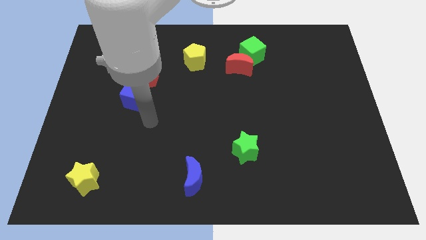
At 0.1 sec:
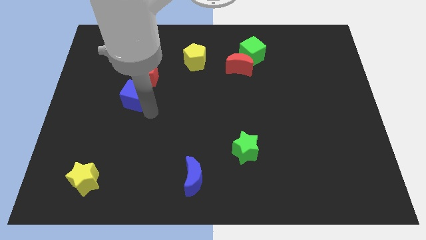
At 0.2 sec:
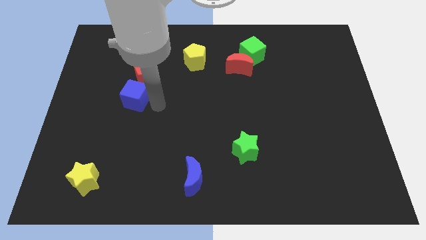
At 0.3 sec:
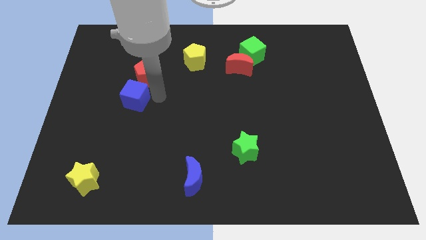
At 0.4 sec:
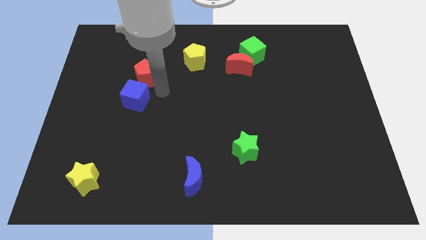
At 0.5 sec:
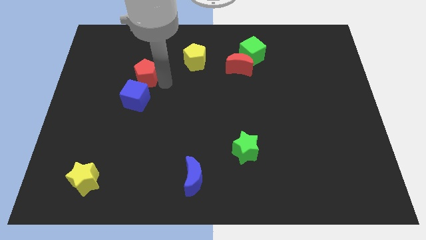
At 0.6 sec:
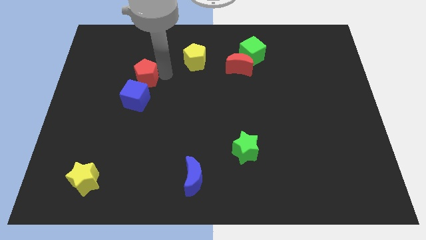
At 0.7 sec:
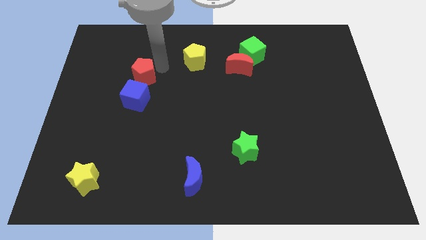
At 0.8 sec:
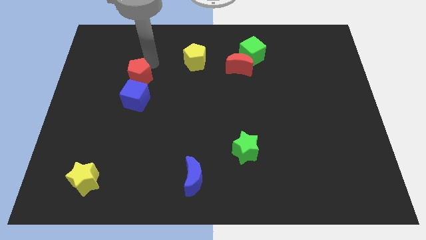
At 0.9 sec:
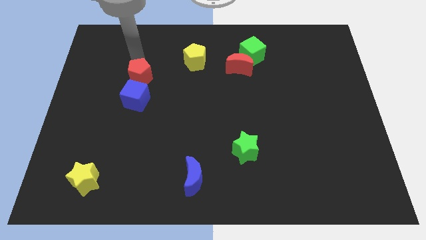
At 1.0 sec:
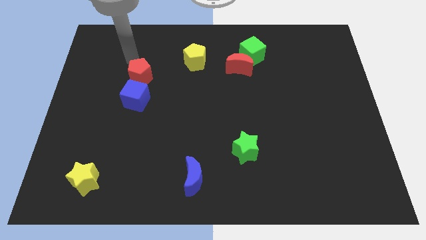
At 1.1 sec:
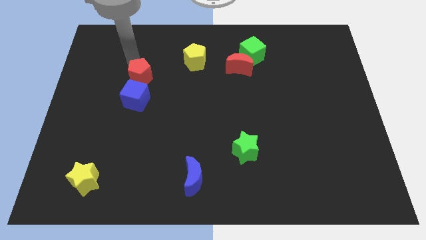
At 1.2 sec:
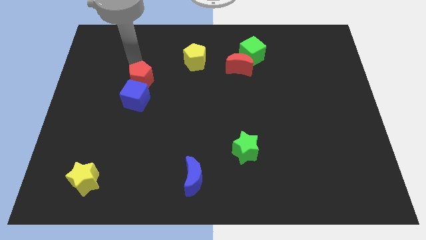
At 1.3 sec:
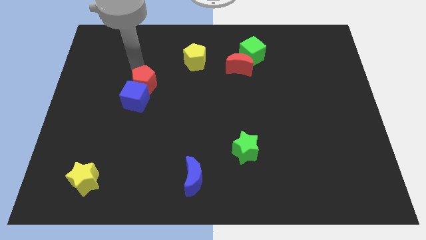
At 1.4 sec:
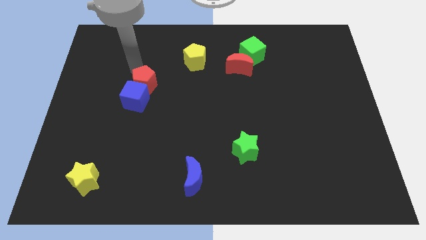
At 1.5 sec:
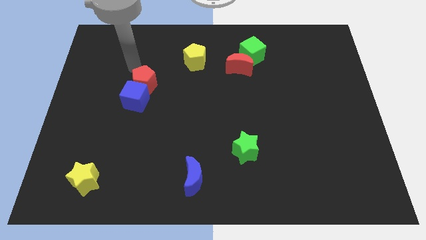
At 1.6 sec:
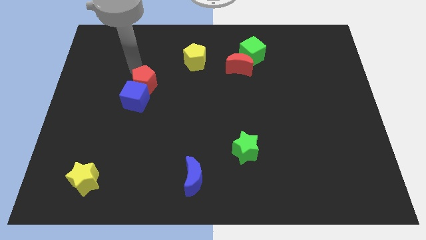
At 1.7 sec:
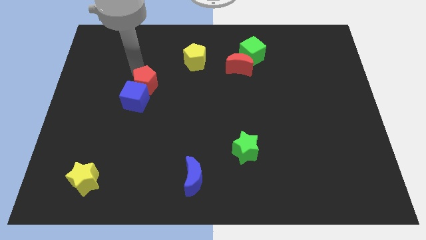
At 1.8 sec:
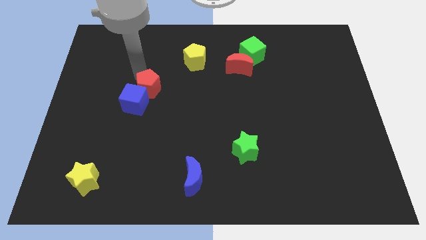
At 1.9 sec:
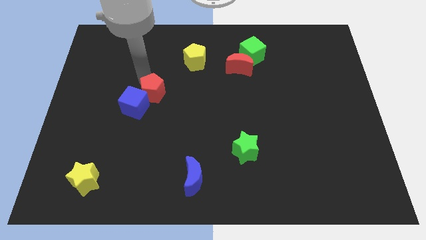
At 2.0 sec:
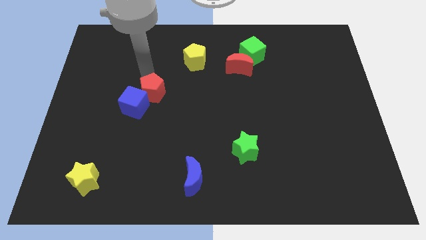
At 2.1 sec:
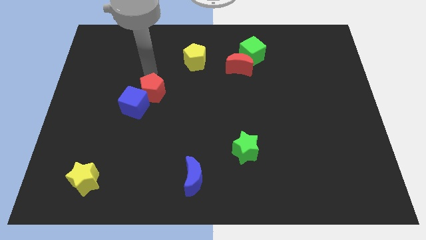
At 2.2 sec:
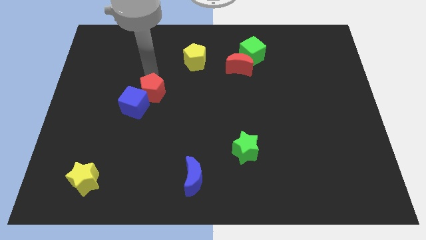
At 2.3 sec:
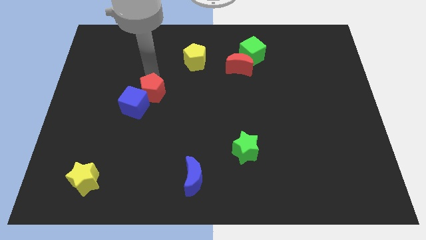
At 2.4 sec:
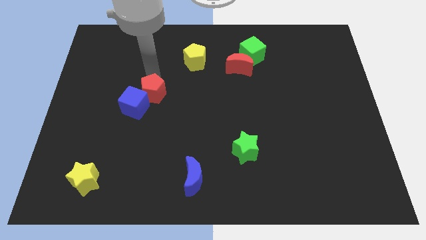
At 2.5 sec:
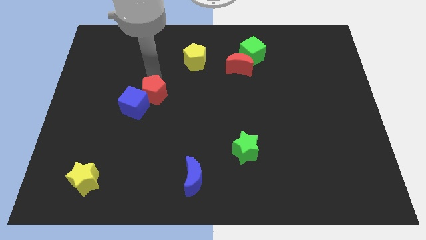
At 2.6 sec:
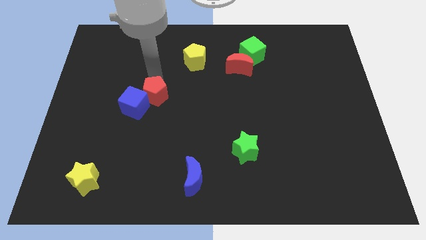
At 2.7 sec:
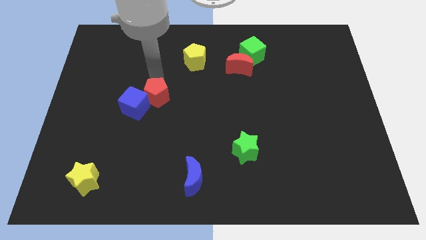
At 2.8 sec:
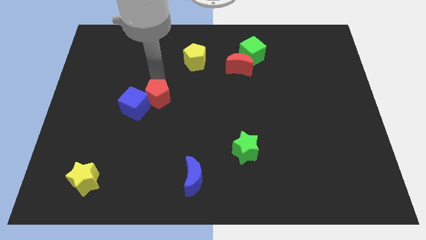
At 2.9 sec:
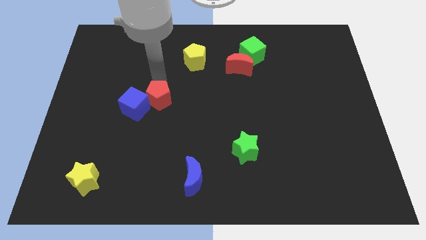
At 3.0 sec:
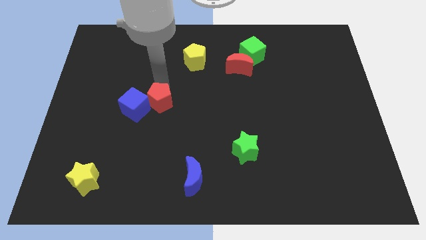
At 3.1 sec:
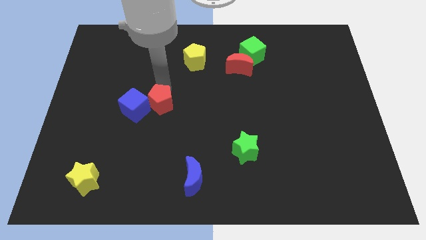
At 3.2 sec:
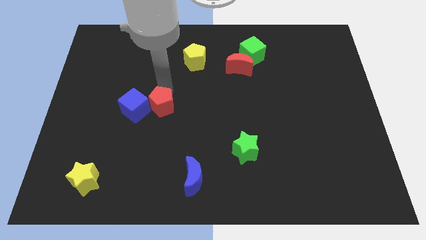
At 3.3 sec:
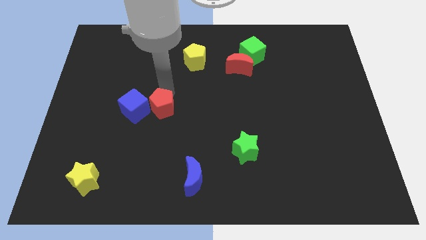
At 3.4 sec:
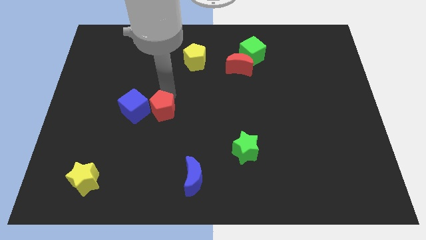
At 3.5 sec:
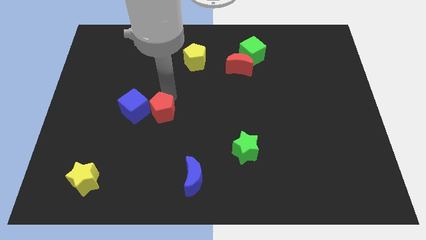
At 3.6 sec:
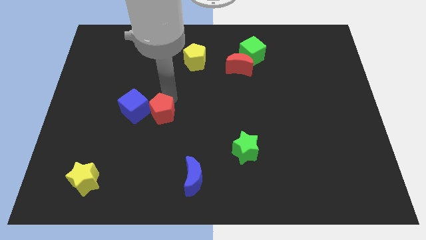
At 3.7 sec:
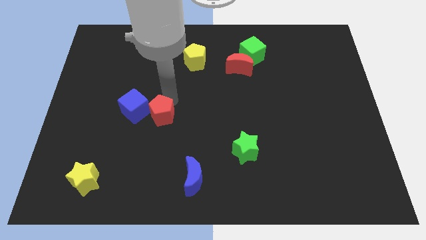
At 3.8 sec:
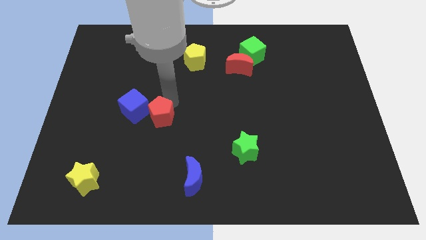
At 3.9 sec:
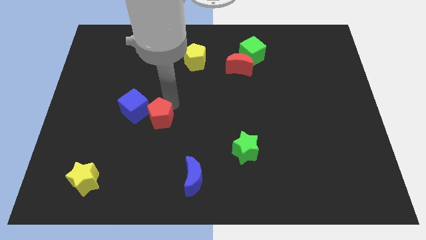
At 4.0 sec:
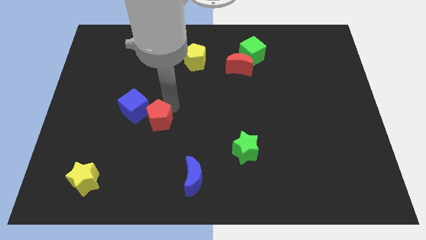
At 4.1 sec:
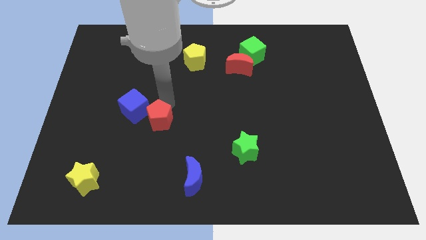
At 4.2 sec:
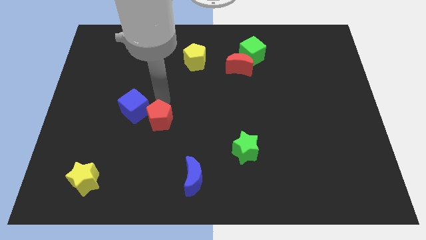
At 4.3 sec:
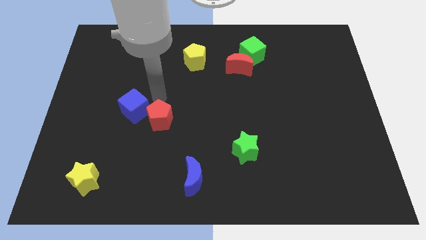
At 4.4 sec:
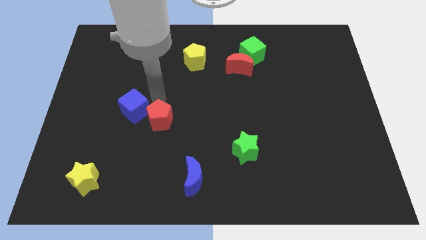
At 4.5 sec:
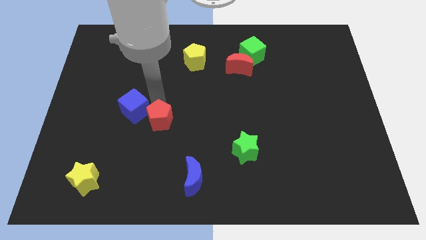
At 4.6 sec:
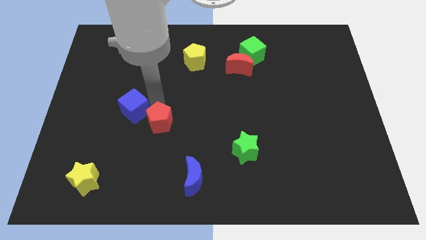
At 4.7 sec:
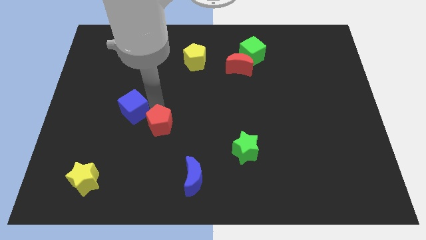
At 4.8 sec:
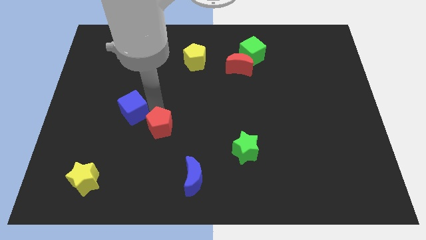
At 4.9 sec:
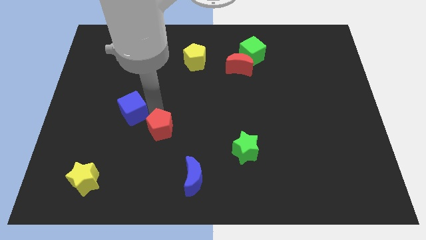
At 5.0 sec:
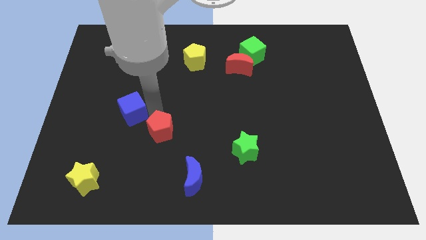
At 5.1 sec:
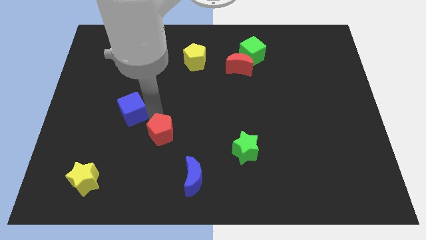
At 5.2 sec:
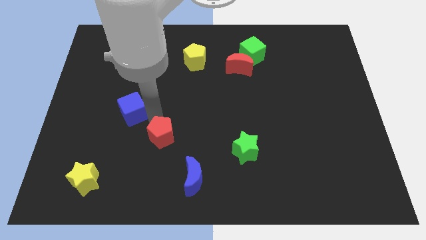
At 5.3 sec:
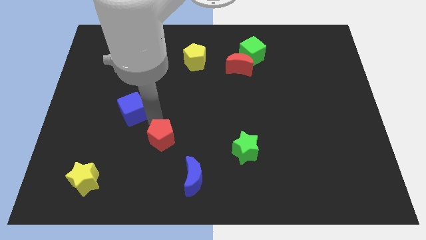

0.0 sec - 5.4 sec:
push the red pentagon to the top left of the blue moon

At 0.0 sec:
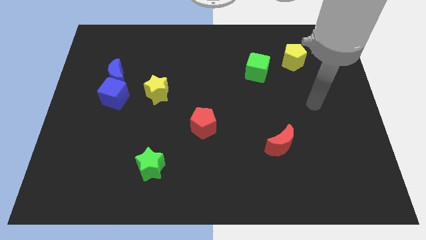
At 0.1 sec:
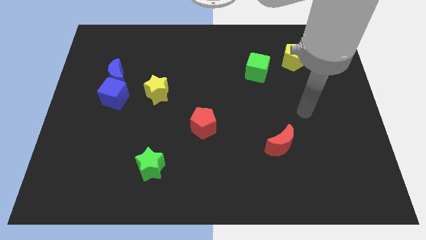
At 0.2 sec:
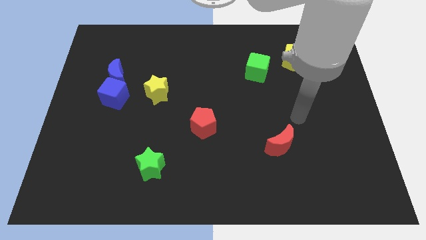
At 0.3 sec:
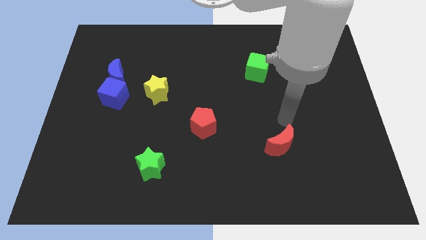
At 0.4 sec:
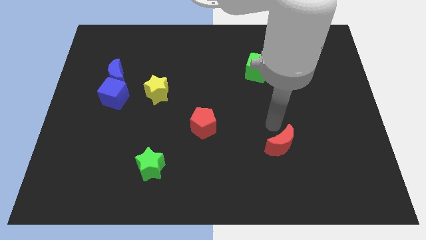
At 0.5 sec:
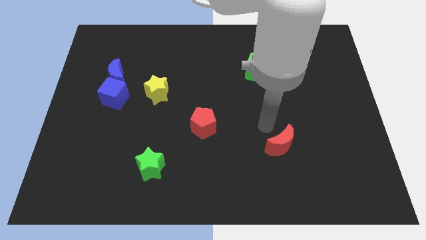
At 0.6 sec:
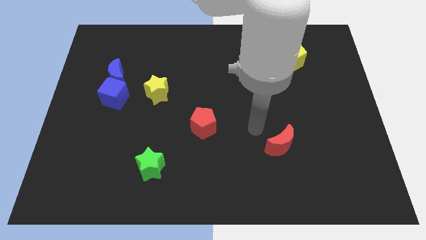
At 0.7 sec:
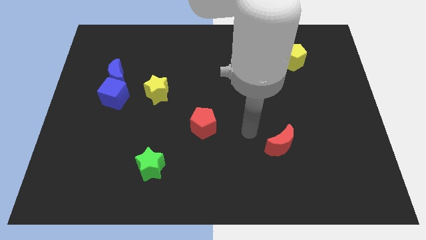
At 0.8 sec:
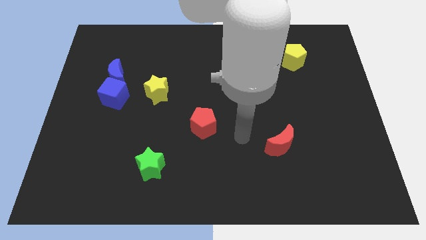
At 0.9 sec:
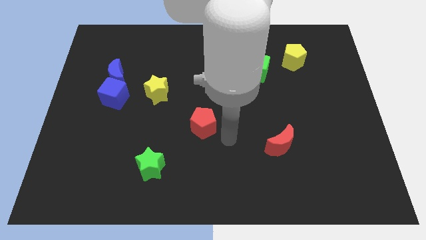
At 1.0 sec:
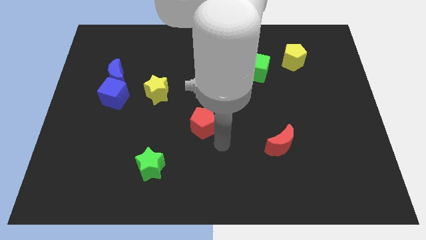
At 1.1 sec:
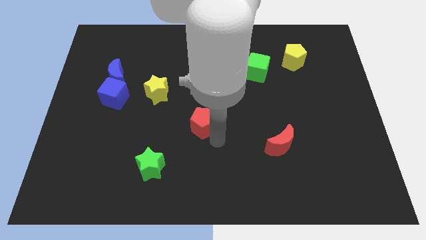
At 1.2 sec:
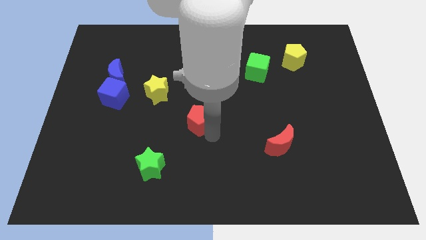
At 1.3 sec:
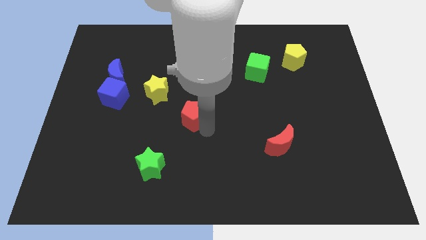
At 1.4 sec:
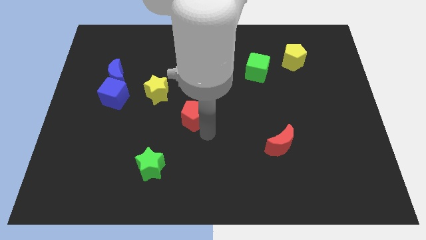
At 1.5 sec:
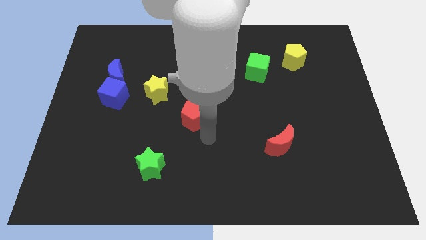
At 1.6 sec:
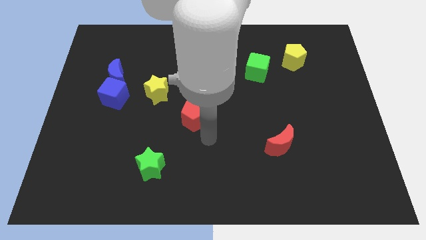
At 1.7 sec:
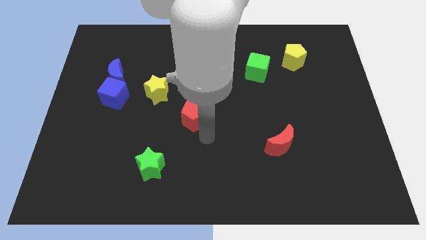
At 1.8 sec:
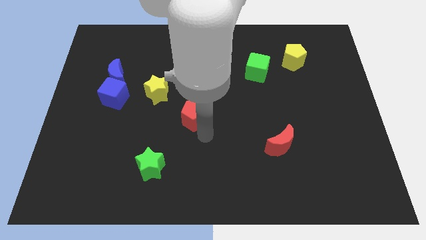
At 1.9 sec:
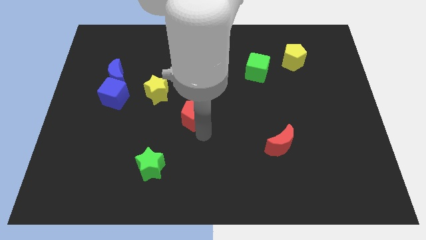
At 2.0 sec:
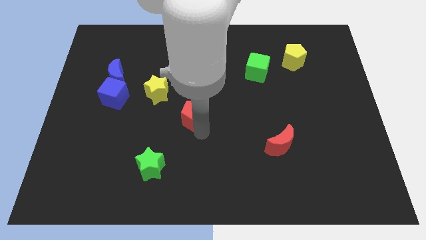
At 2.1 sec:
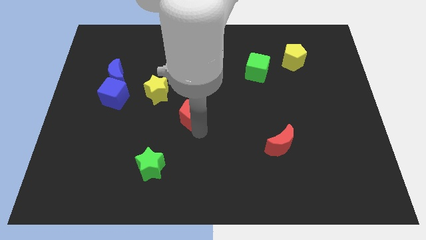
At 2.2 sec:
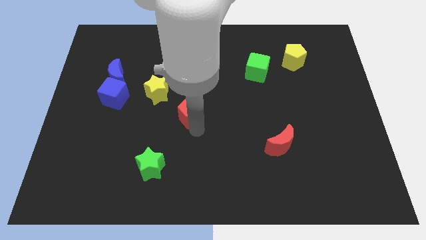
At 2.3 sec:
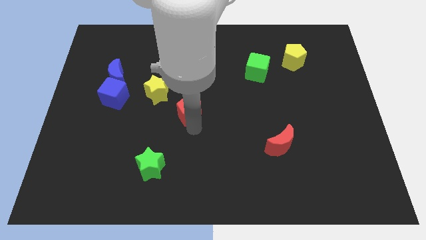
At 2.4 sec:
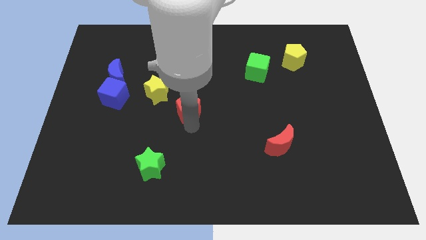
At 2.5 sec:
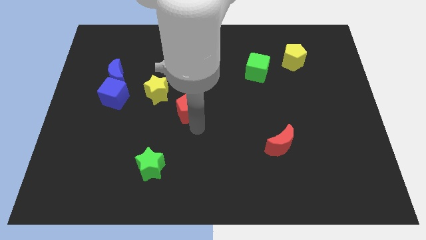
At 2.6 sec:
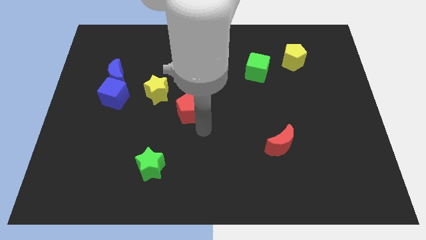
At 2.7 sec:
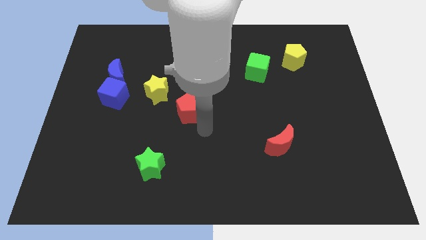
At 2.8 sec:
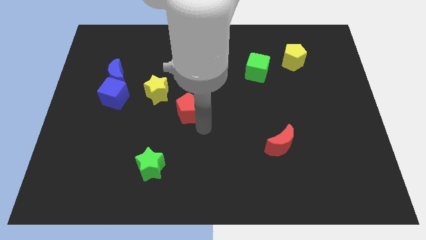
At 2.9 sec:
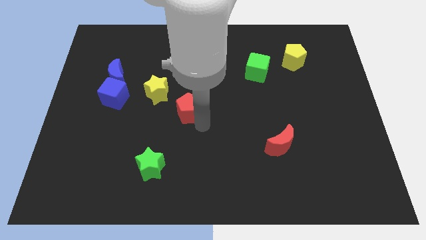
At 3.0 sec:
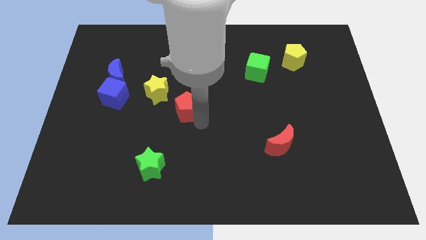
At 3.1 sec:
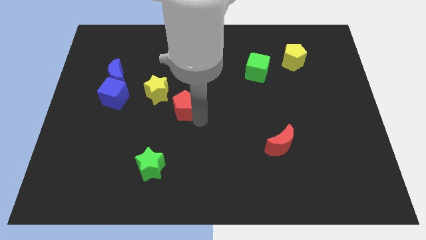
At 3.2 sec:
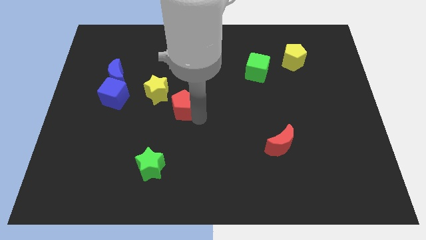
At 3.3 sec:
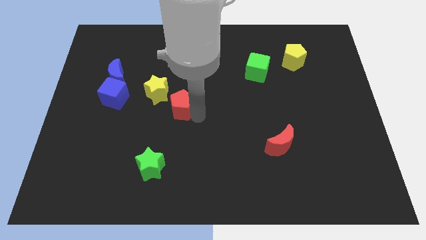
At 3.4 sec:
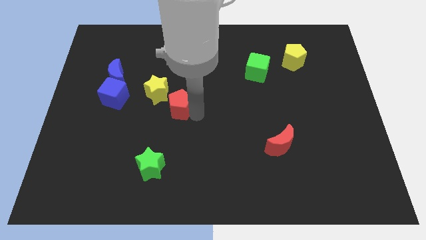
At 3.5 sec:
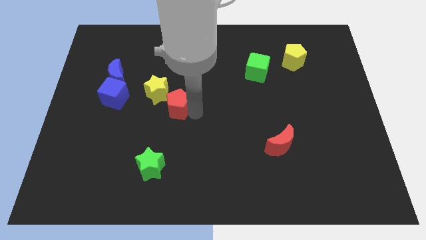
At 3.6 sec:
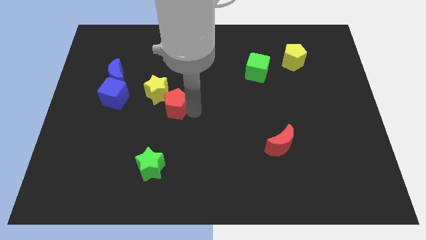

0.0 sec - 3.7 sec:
move the red pentagon to the right side of the blue cube
